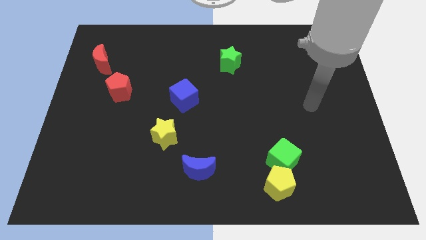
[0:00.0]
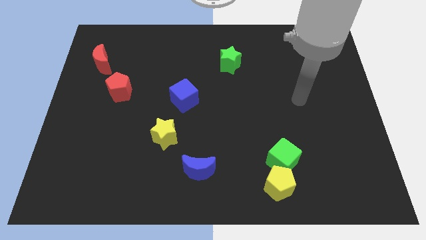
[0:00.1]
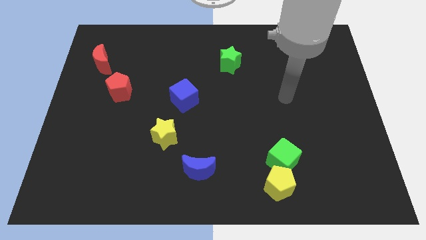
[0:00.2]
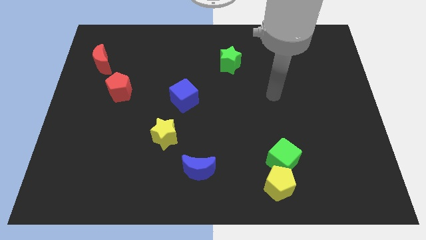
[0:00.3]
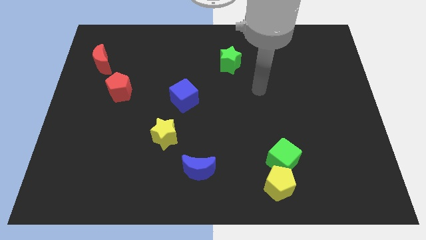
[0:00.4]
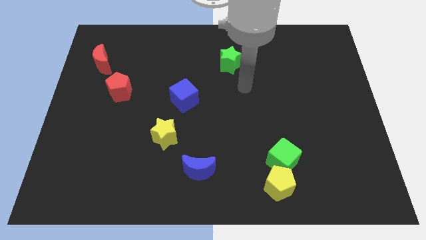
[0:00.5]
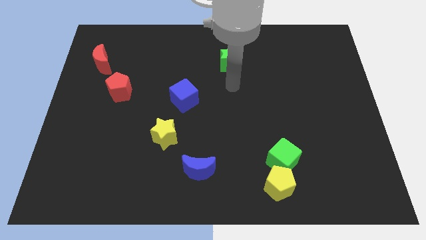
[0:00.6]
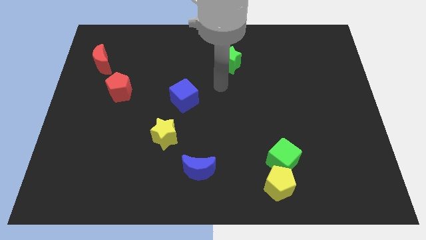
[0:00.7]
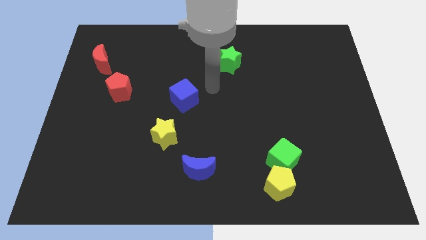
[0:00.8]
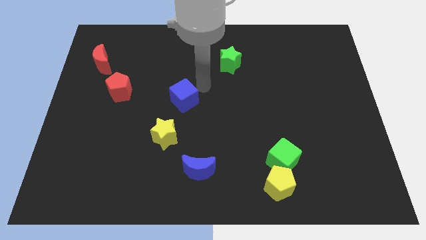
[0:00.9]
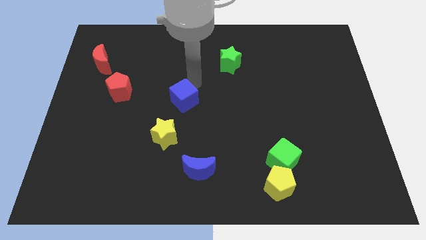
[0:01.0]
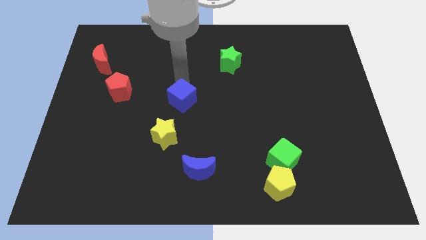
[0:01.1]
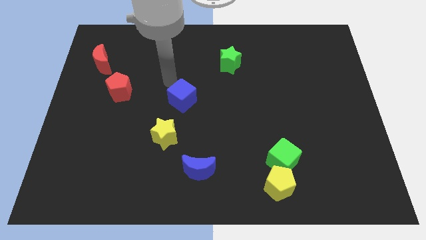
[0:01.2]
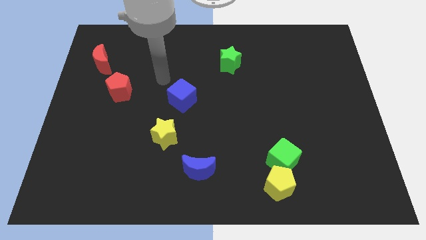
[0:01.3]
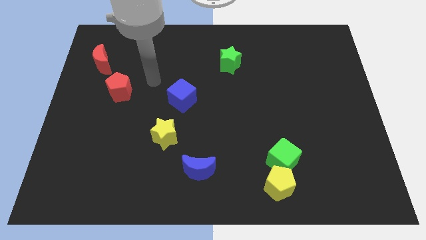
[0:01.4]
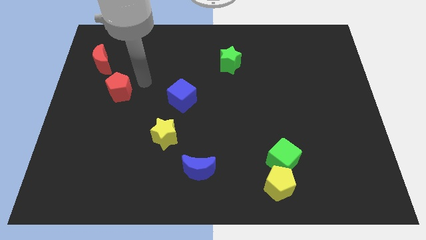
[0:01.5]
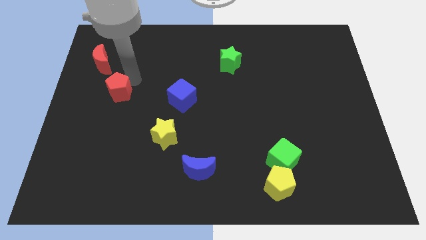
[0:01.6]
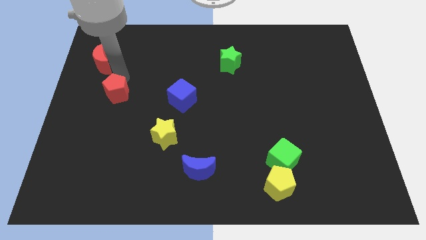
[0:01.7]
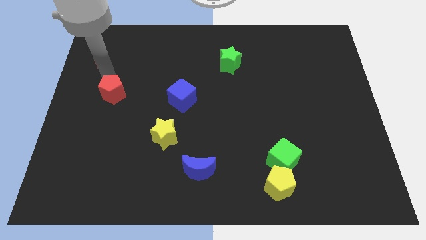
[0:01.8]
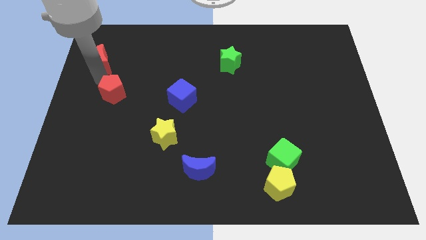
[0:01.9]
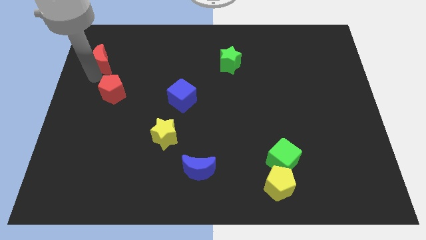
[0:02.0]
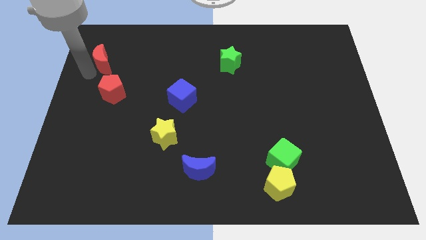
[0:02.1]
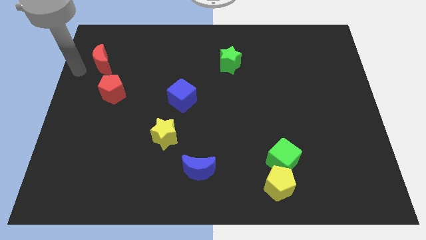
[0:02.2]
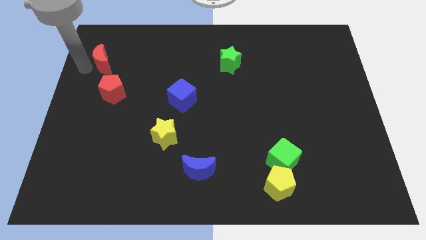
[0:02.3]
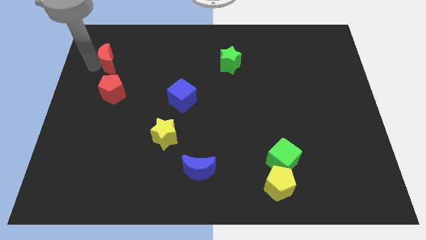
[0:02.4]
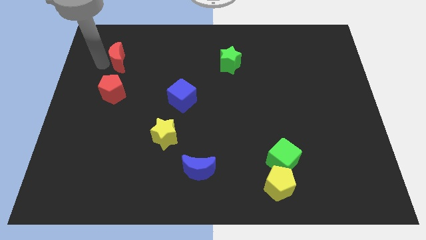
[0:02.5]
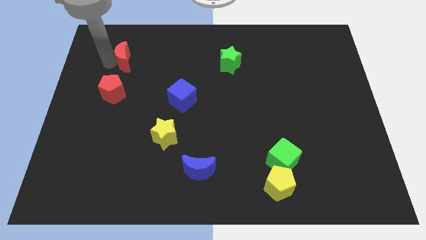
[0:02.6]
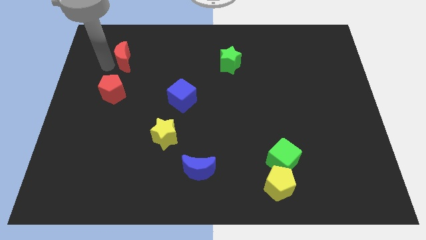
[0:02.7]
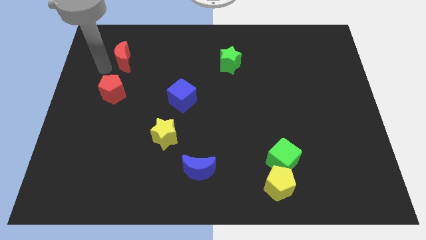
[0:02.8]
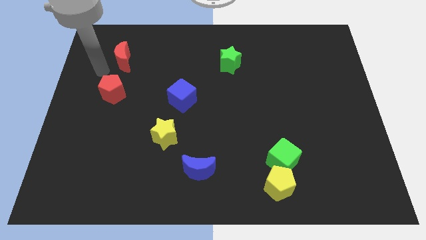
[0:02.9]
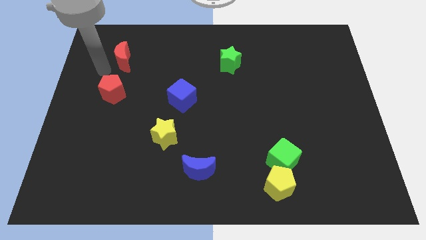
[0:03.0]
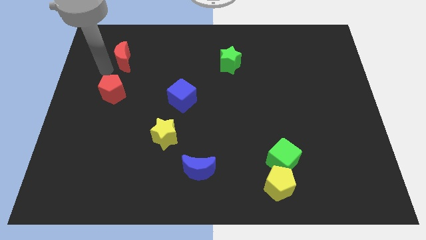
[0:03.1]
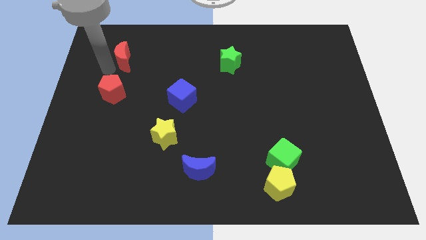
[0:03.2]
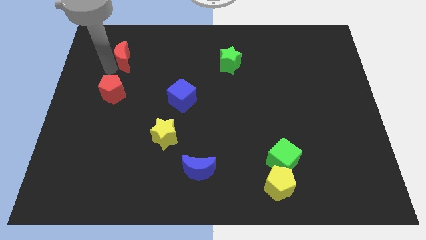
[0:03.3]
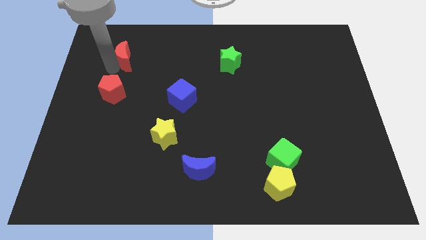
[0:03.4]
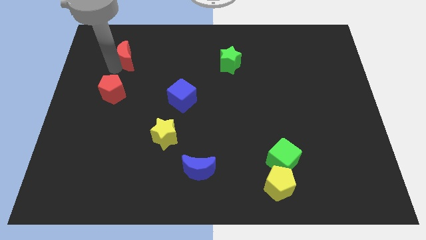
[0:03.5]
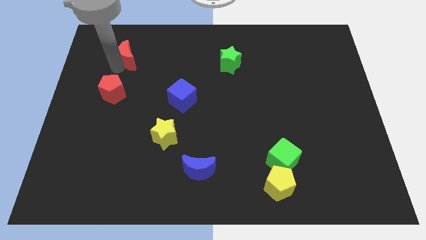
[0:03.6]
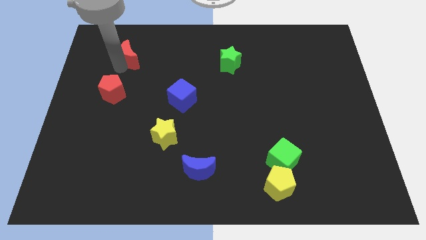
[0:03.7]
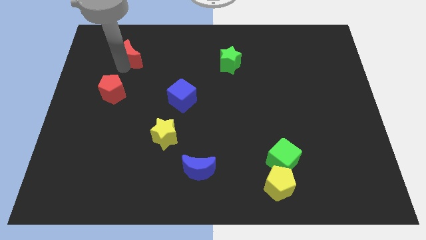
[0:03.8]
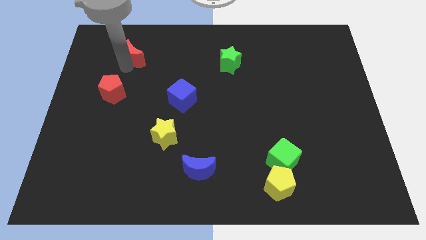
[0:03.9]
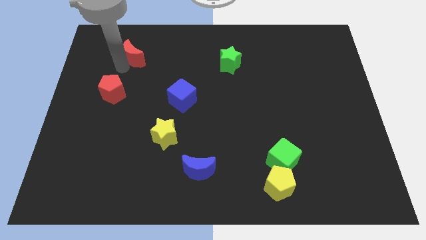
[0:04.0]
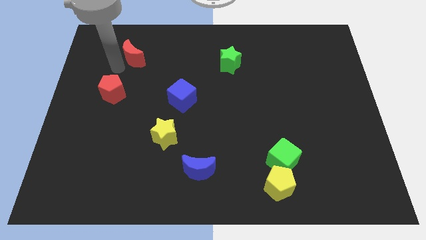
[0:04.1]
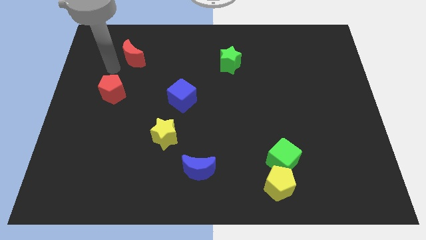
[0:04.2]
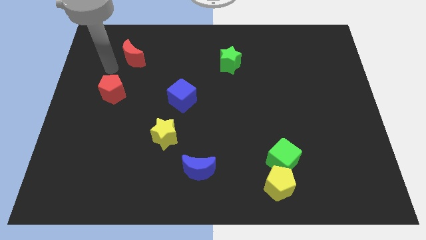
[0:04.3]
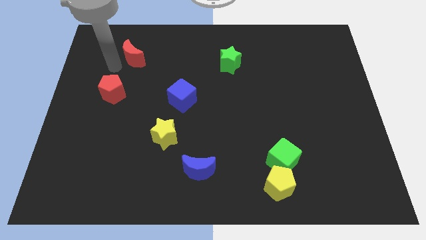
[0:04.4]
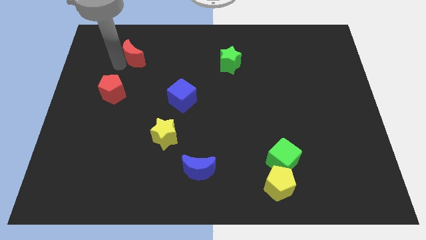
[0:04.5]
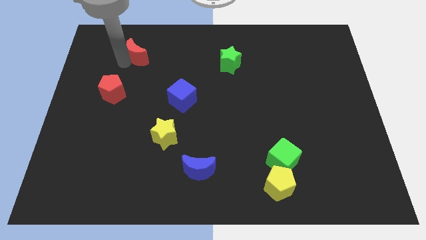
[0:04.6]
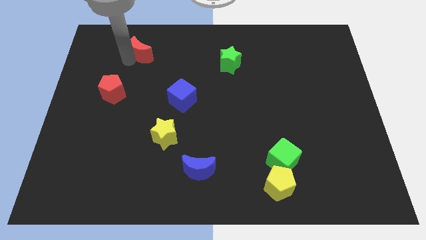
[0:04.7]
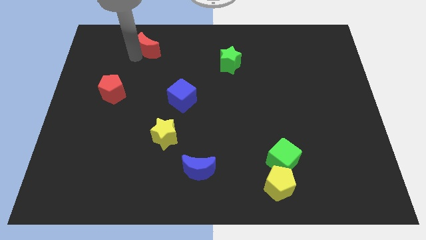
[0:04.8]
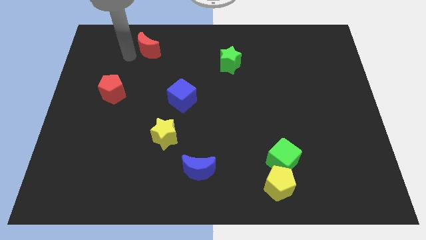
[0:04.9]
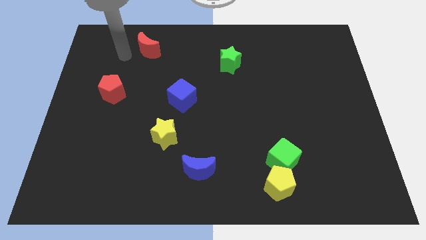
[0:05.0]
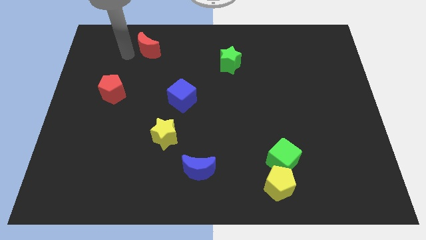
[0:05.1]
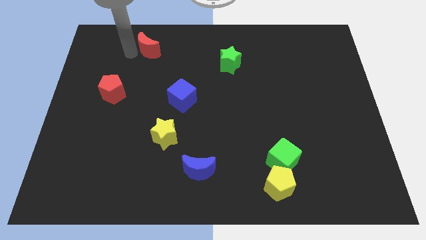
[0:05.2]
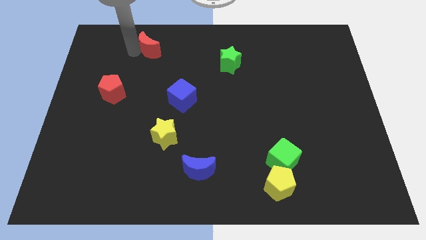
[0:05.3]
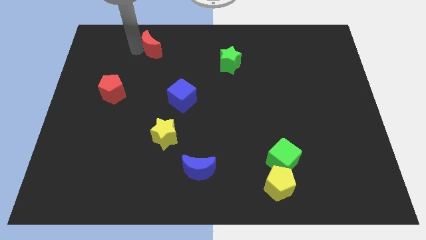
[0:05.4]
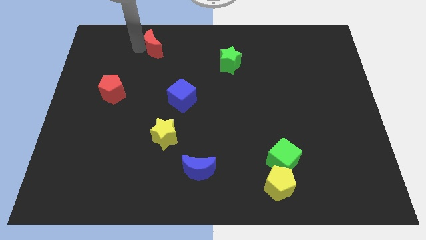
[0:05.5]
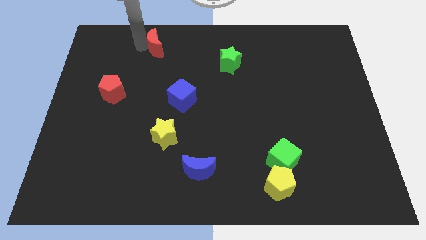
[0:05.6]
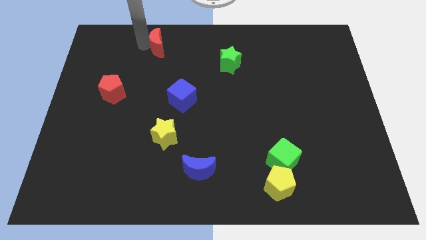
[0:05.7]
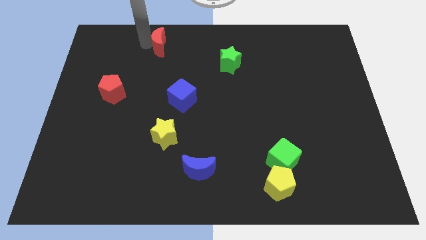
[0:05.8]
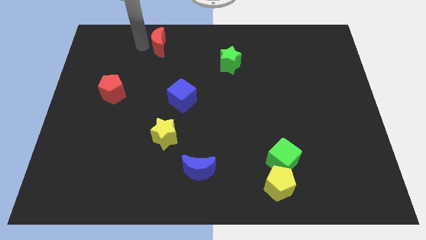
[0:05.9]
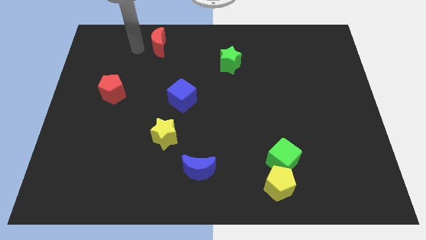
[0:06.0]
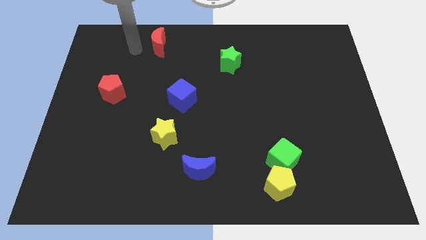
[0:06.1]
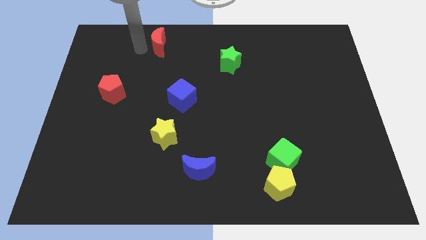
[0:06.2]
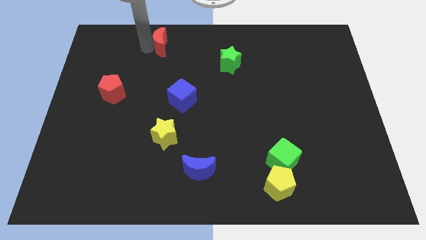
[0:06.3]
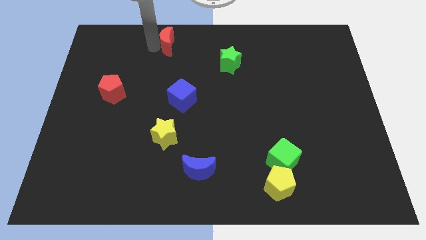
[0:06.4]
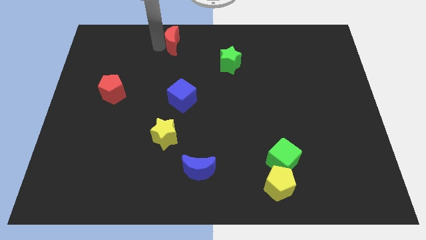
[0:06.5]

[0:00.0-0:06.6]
push the red moon to the top

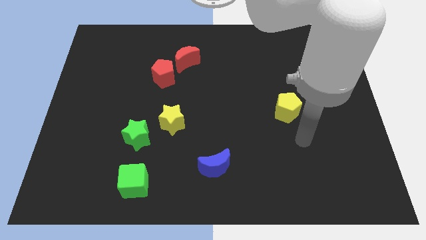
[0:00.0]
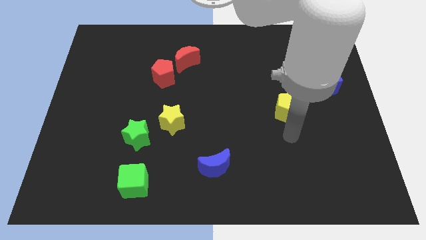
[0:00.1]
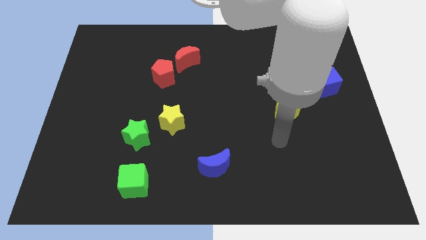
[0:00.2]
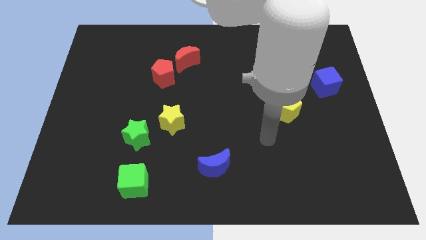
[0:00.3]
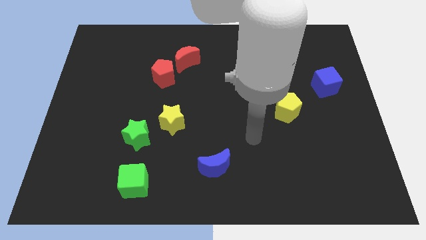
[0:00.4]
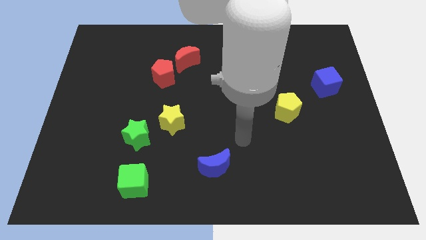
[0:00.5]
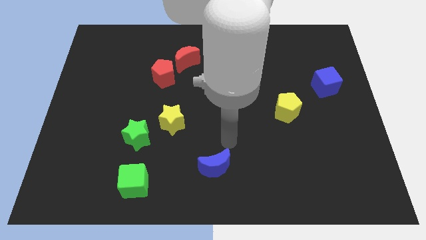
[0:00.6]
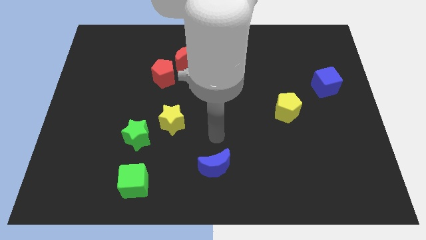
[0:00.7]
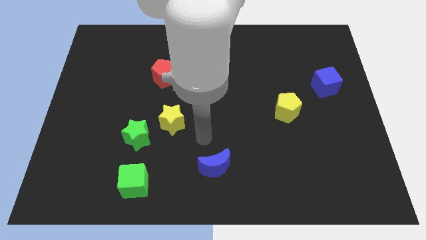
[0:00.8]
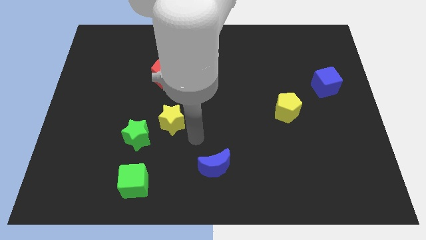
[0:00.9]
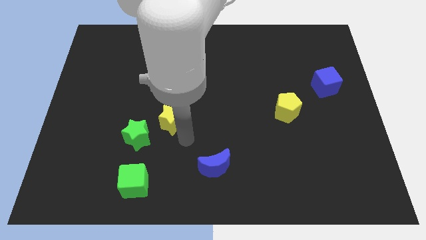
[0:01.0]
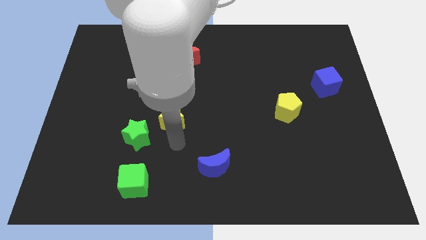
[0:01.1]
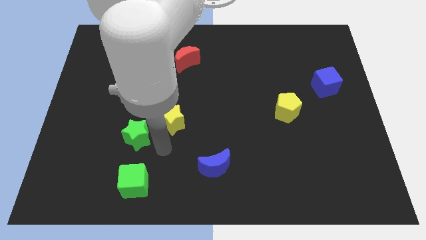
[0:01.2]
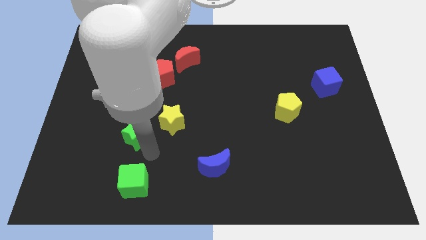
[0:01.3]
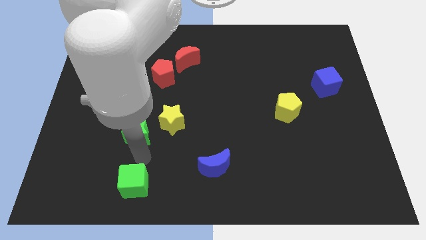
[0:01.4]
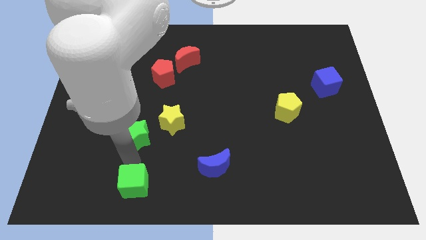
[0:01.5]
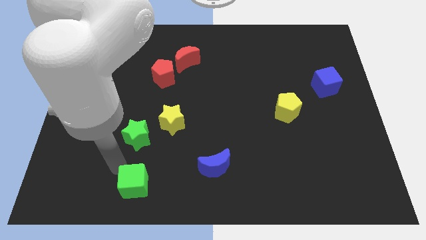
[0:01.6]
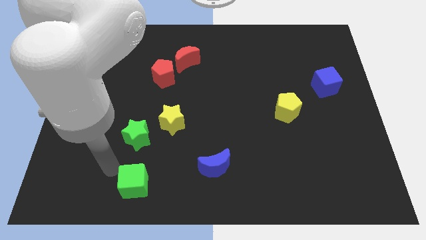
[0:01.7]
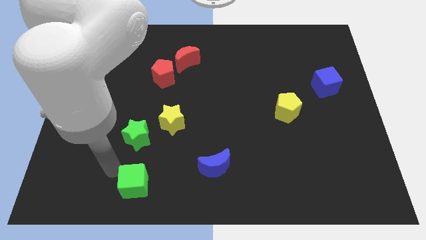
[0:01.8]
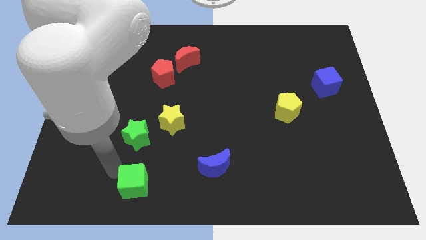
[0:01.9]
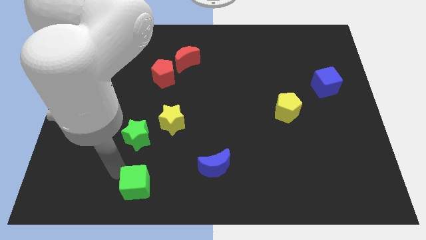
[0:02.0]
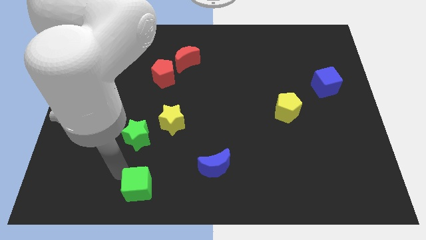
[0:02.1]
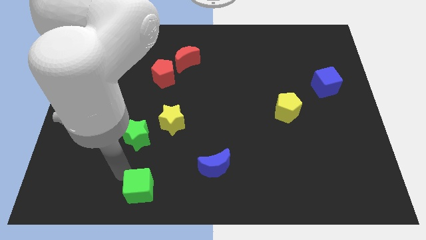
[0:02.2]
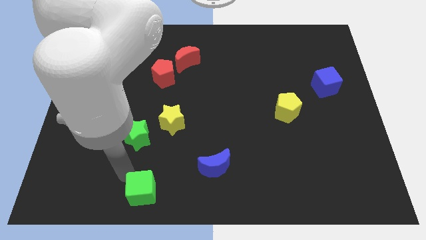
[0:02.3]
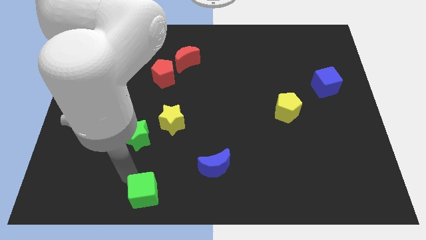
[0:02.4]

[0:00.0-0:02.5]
push the green cube to the bottom
